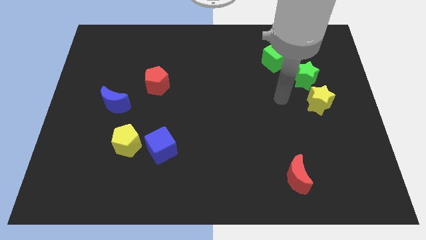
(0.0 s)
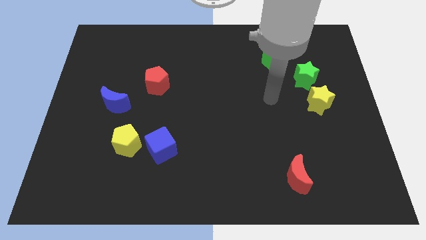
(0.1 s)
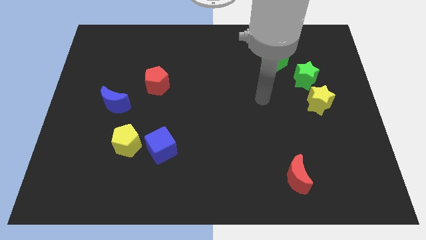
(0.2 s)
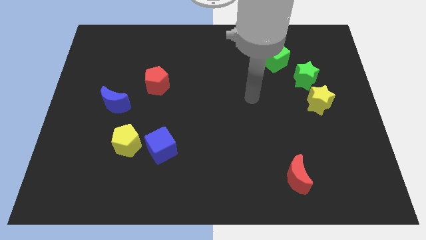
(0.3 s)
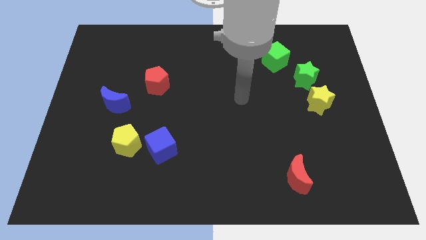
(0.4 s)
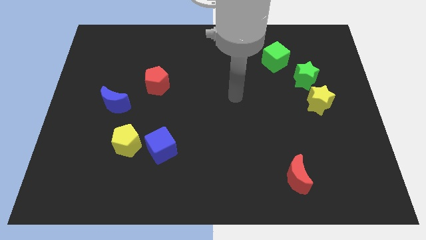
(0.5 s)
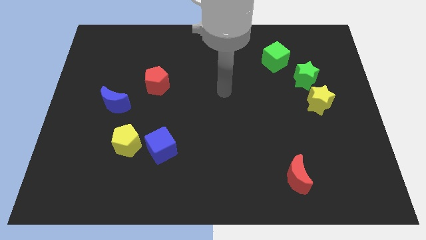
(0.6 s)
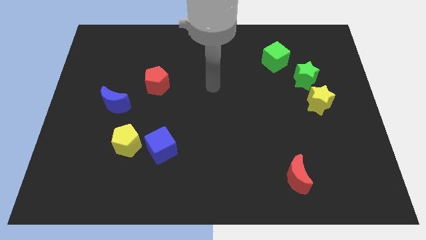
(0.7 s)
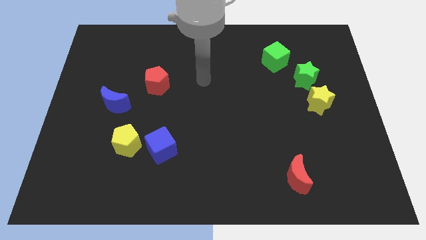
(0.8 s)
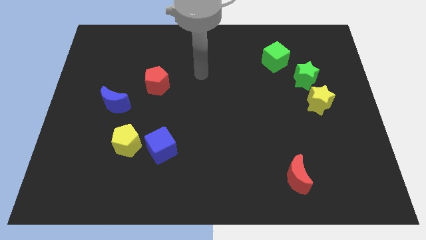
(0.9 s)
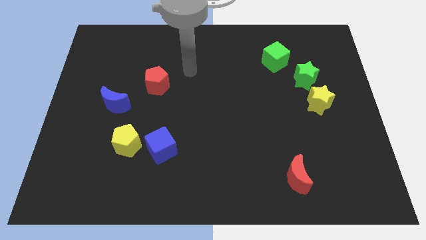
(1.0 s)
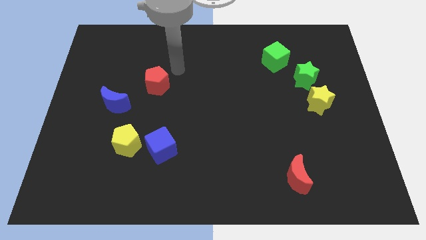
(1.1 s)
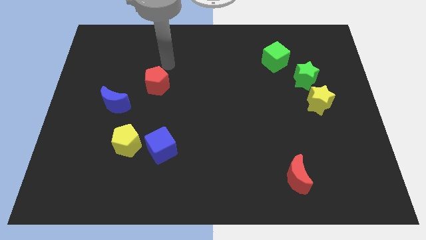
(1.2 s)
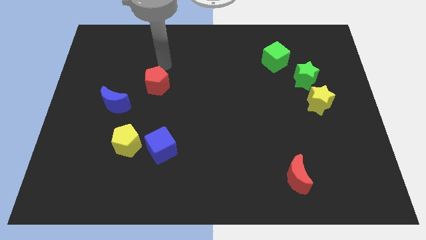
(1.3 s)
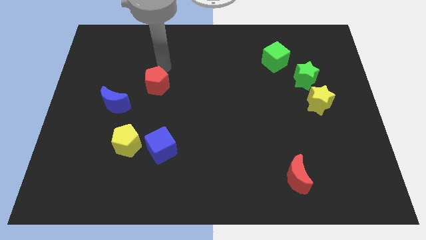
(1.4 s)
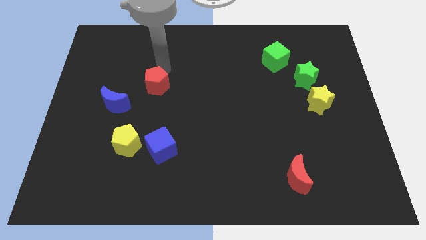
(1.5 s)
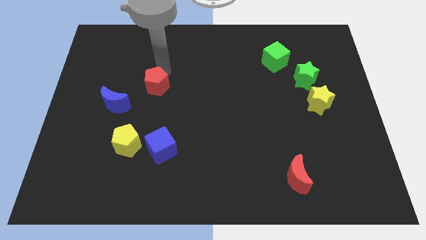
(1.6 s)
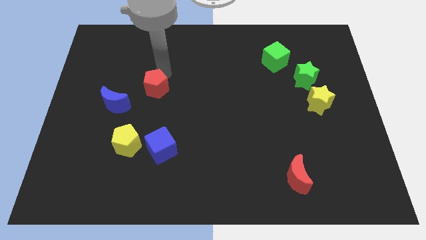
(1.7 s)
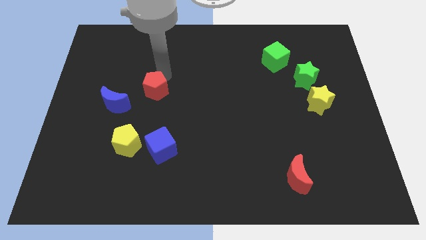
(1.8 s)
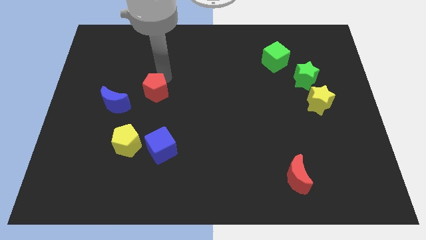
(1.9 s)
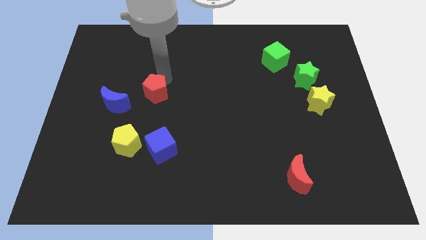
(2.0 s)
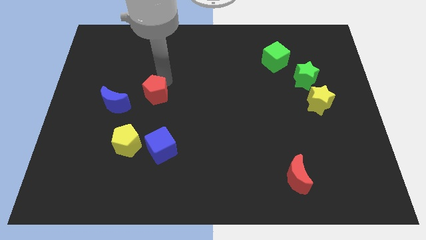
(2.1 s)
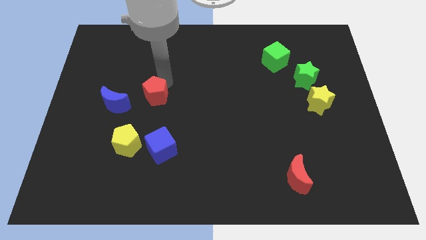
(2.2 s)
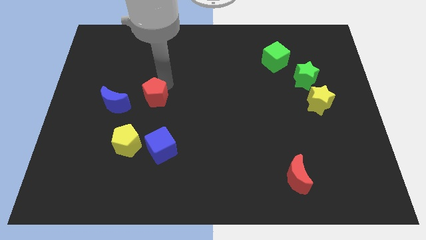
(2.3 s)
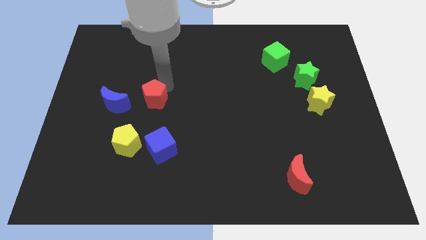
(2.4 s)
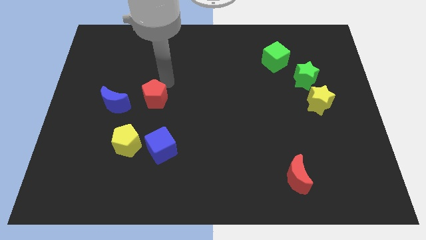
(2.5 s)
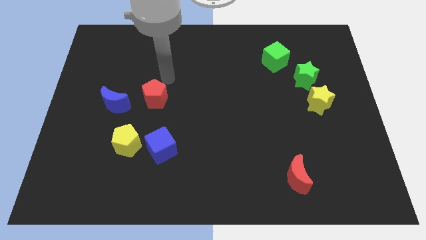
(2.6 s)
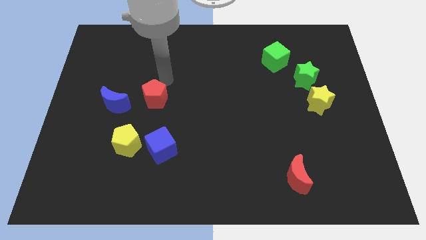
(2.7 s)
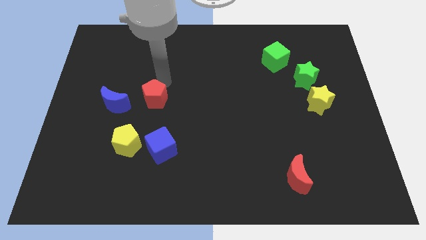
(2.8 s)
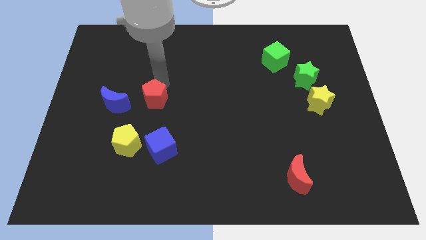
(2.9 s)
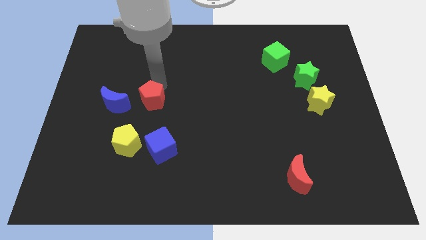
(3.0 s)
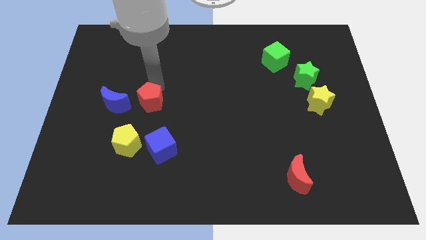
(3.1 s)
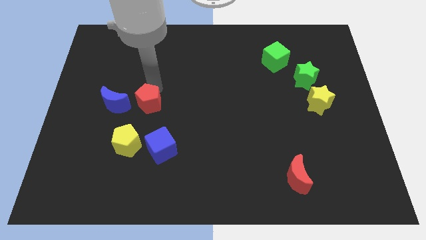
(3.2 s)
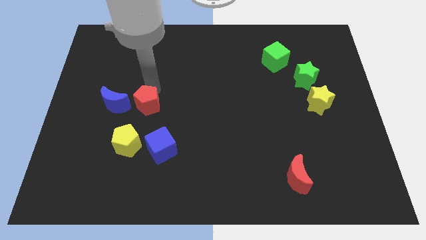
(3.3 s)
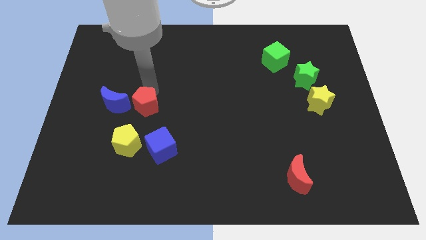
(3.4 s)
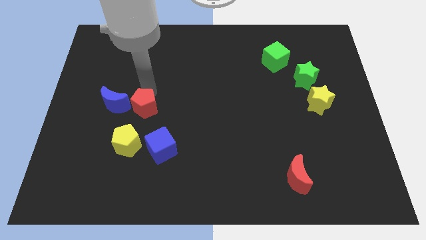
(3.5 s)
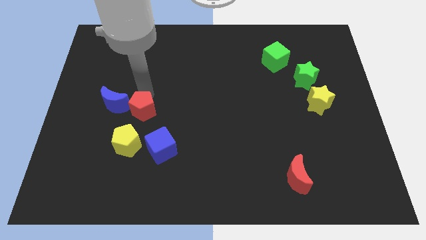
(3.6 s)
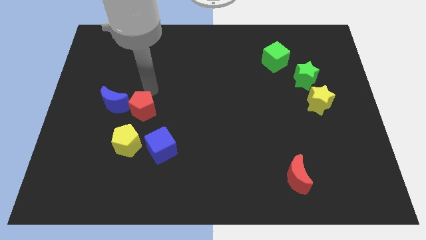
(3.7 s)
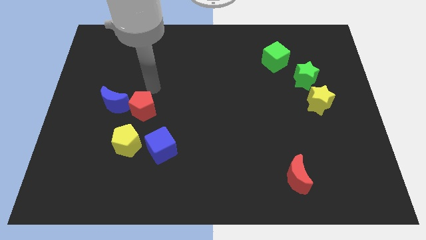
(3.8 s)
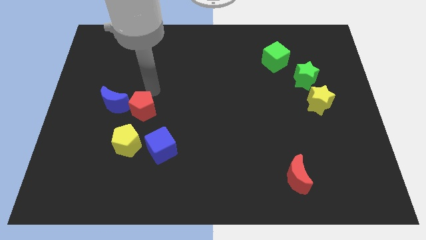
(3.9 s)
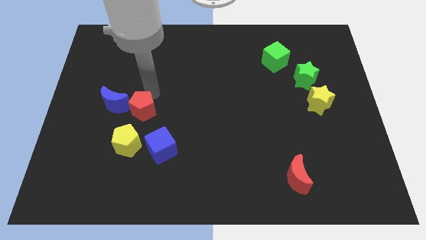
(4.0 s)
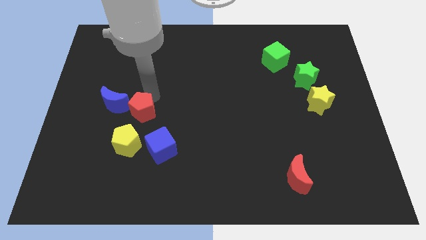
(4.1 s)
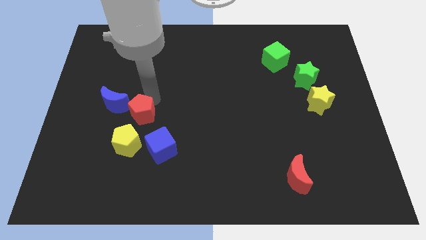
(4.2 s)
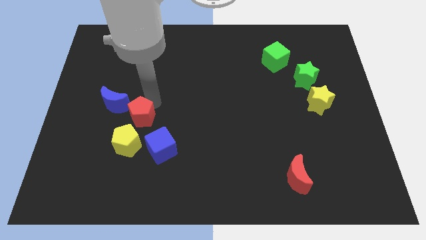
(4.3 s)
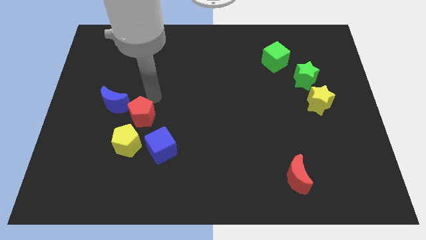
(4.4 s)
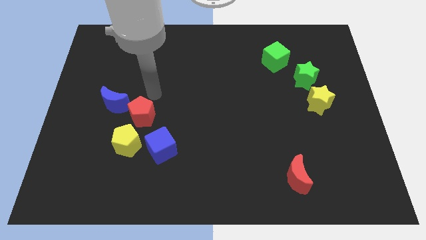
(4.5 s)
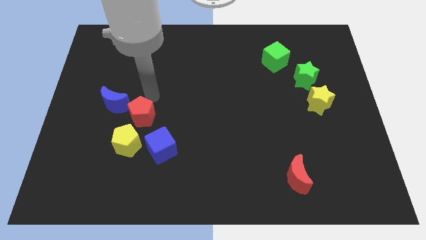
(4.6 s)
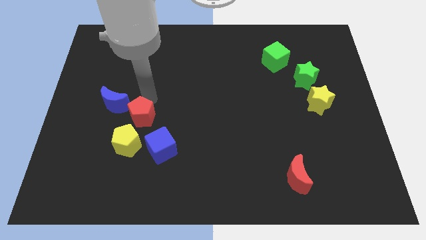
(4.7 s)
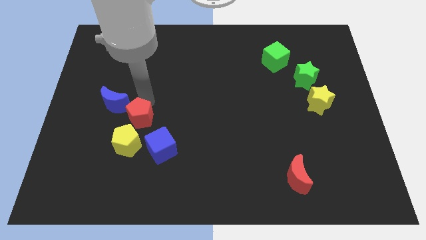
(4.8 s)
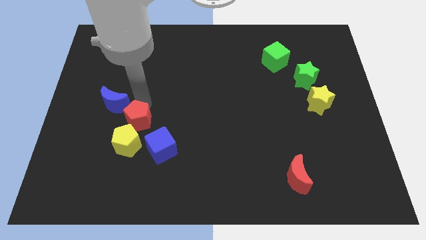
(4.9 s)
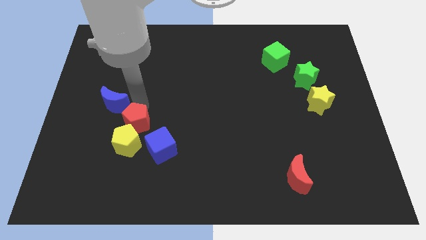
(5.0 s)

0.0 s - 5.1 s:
put the red pentagon close to the yellow pentagon

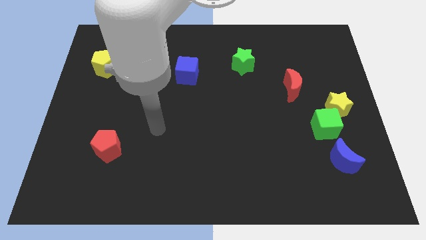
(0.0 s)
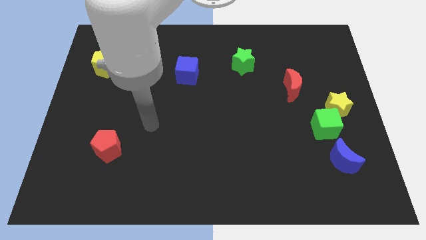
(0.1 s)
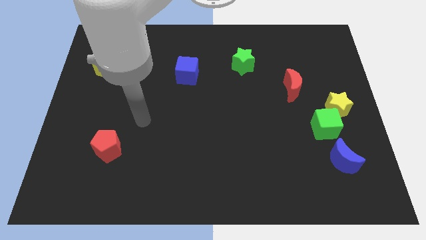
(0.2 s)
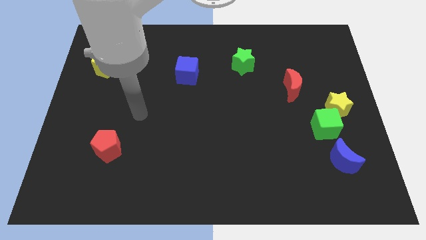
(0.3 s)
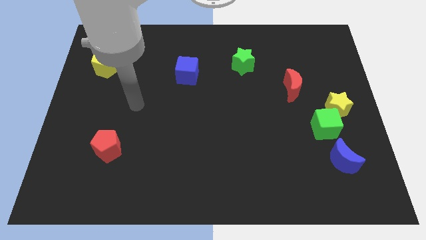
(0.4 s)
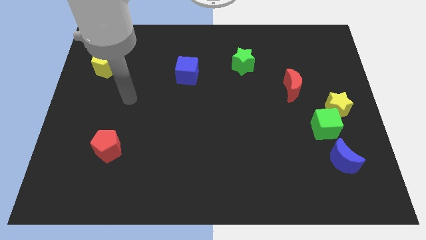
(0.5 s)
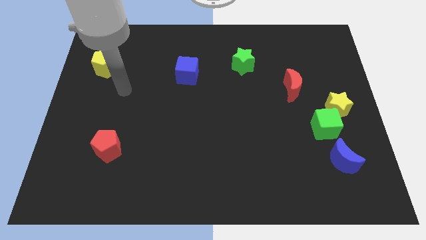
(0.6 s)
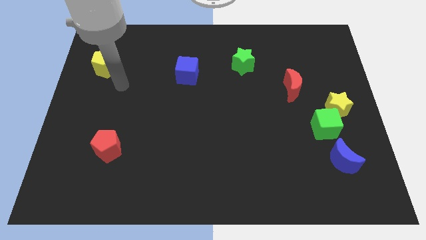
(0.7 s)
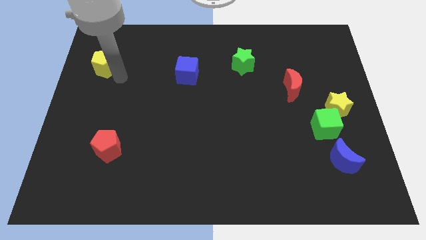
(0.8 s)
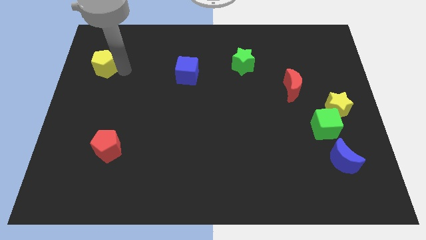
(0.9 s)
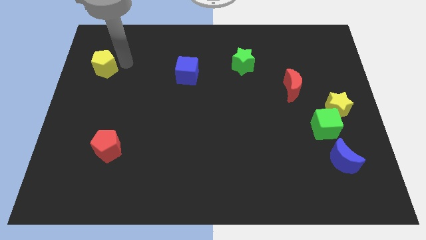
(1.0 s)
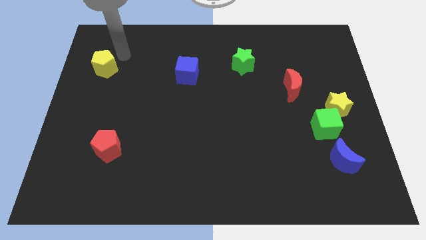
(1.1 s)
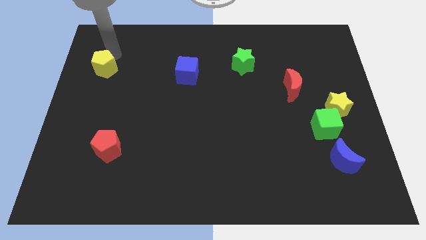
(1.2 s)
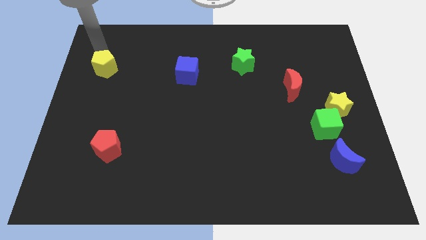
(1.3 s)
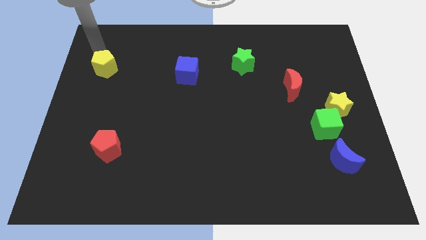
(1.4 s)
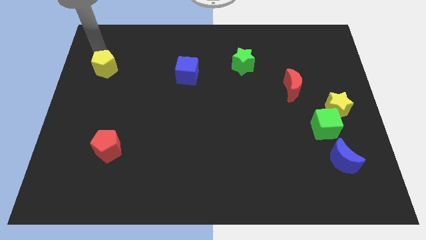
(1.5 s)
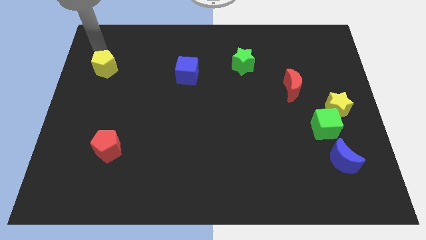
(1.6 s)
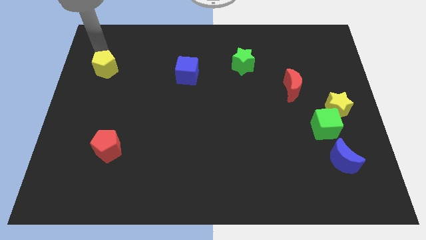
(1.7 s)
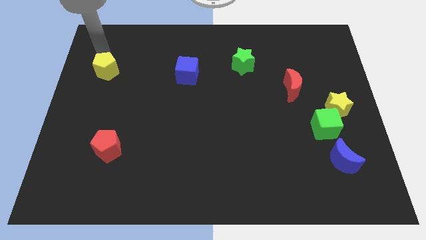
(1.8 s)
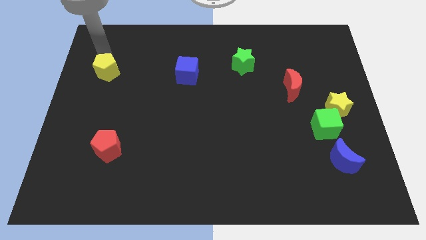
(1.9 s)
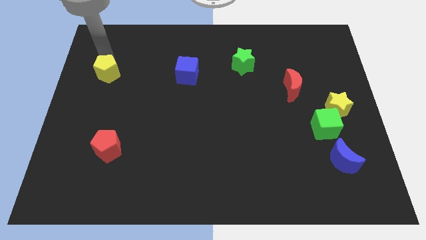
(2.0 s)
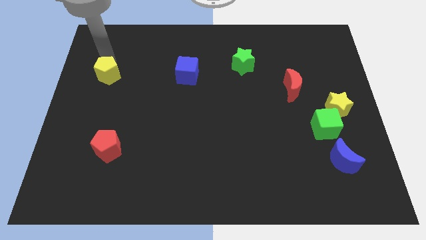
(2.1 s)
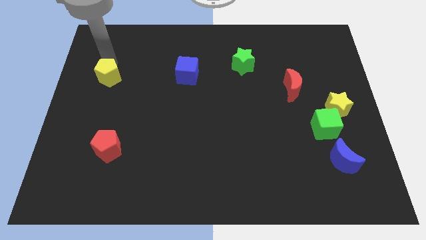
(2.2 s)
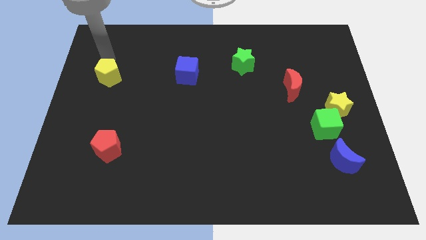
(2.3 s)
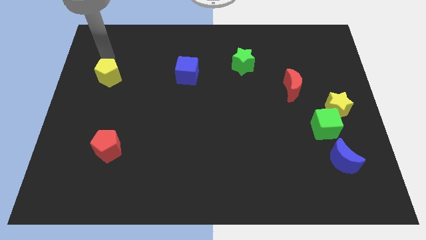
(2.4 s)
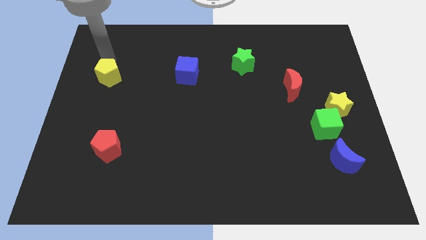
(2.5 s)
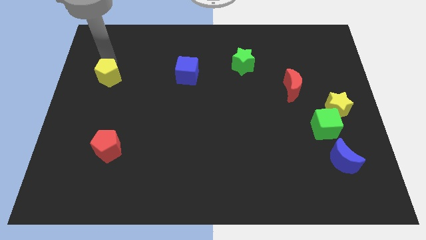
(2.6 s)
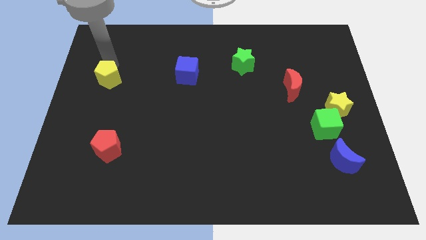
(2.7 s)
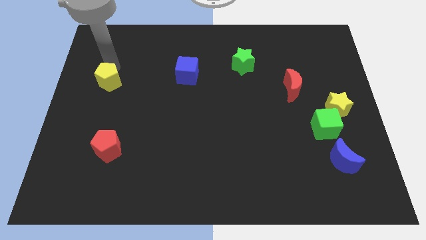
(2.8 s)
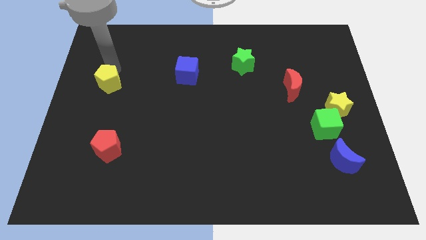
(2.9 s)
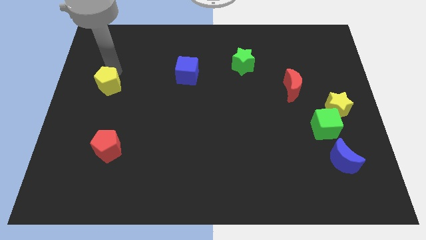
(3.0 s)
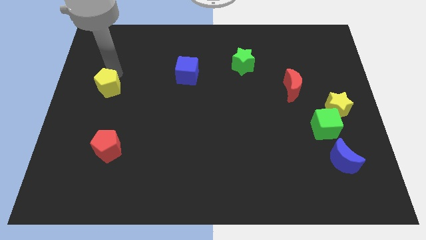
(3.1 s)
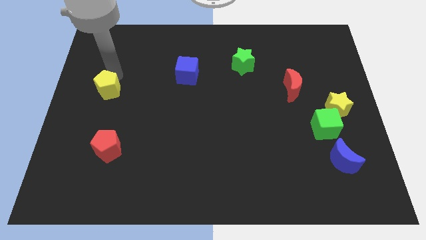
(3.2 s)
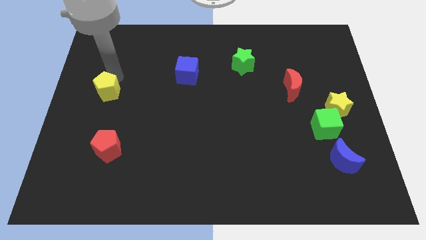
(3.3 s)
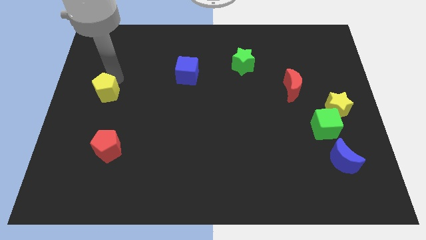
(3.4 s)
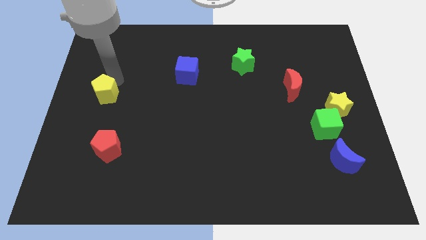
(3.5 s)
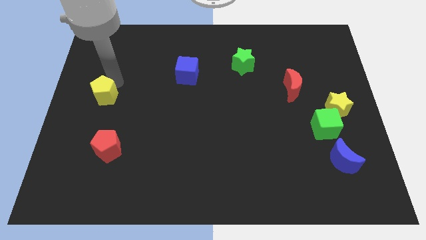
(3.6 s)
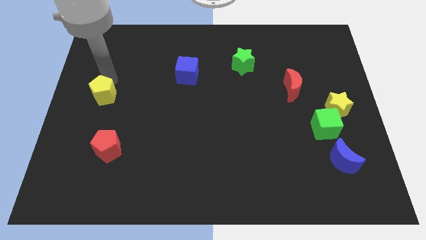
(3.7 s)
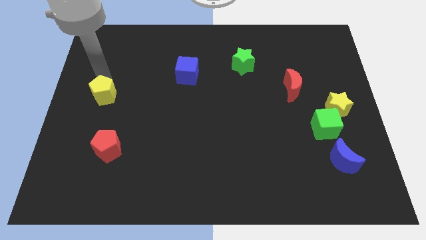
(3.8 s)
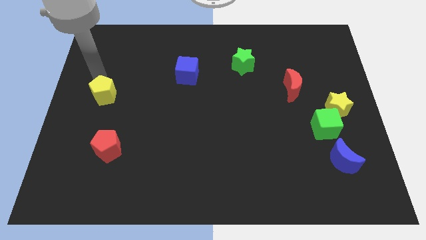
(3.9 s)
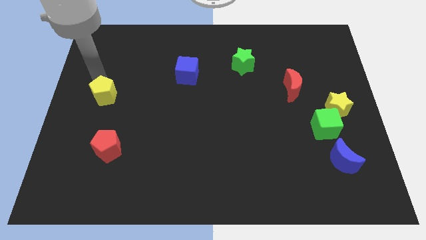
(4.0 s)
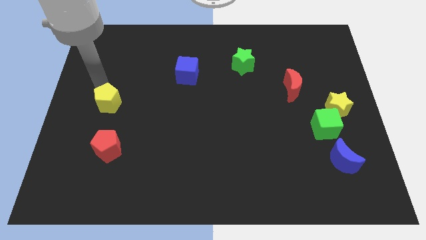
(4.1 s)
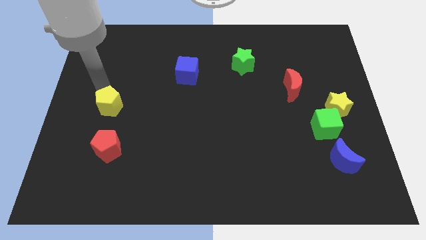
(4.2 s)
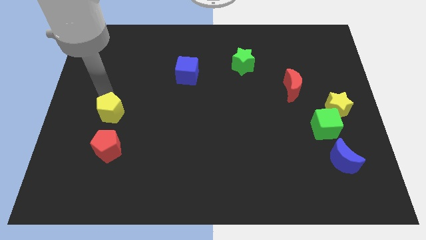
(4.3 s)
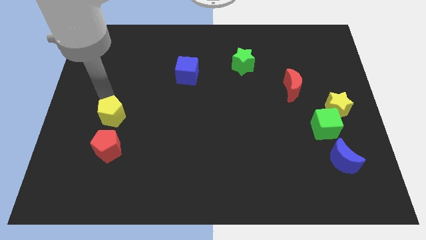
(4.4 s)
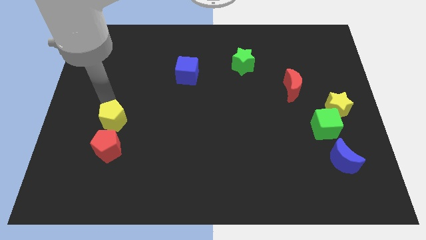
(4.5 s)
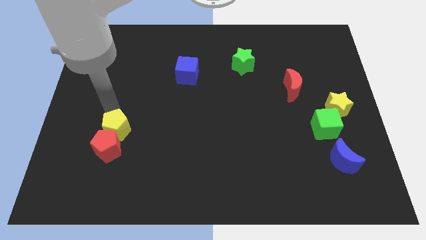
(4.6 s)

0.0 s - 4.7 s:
move the yellow pentagon next to the red pentagon
